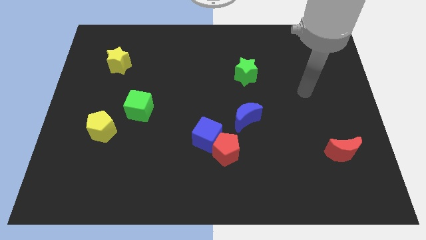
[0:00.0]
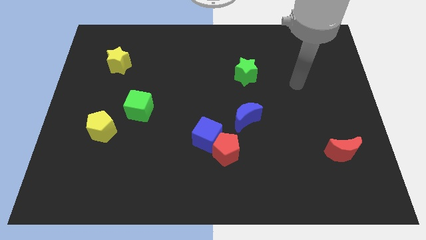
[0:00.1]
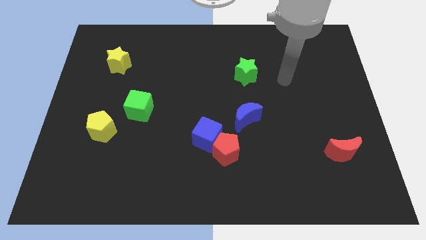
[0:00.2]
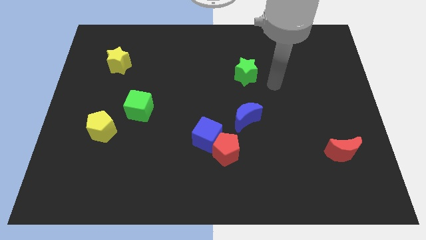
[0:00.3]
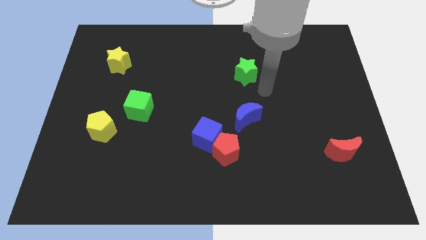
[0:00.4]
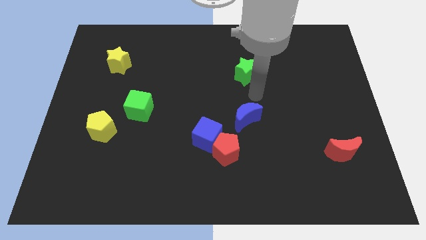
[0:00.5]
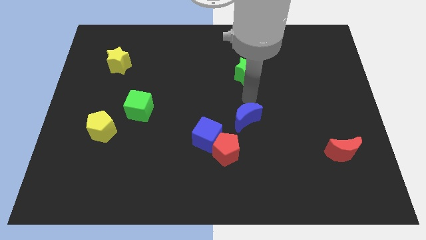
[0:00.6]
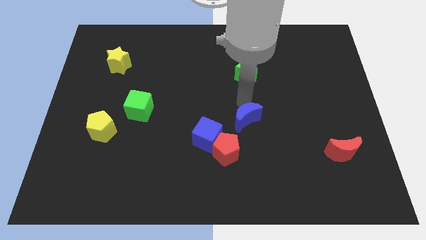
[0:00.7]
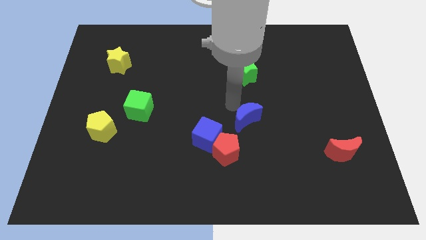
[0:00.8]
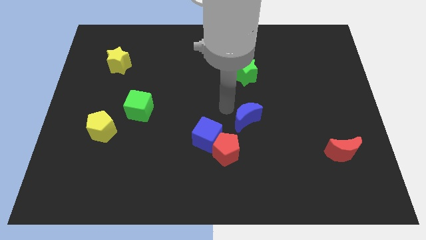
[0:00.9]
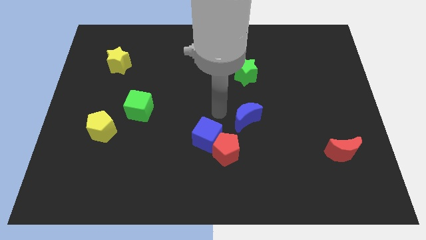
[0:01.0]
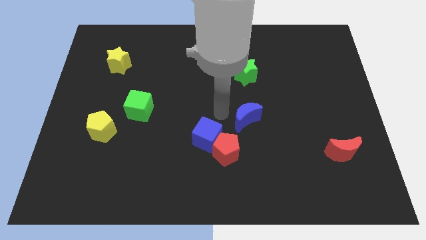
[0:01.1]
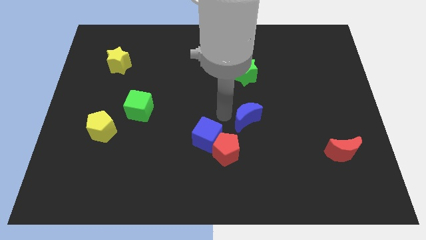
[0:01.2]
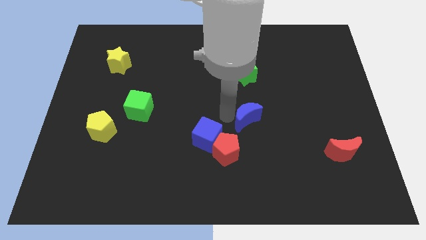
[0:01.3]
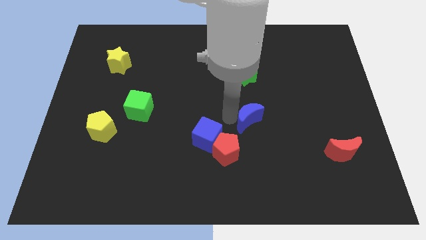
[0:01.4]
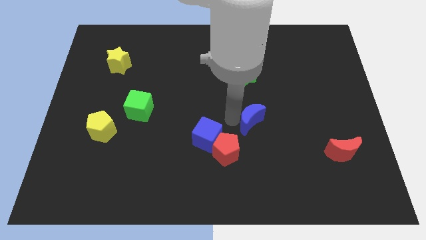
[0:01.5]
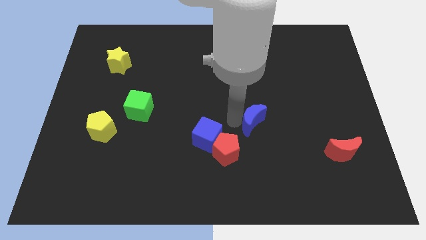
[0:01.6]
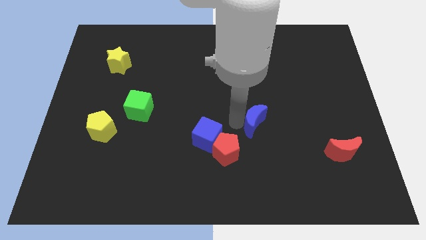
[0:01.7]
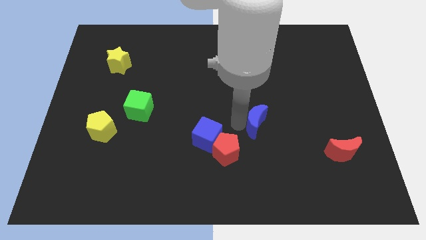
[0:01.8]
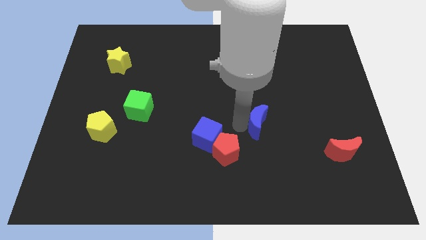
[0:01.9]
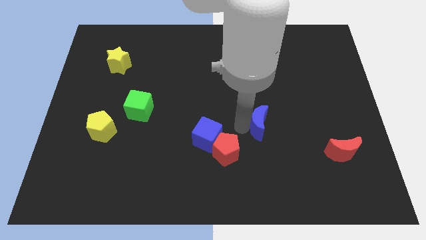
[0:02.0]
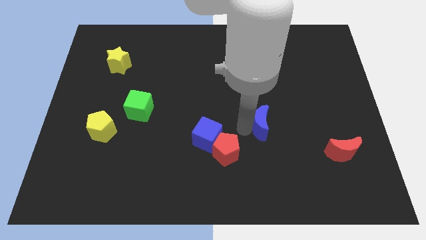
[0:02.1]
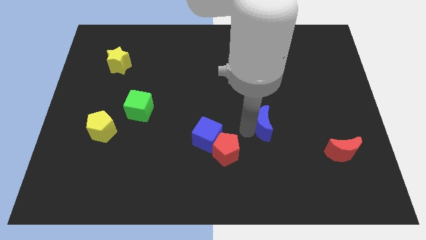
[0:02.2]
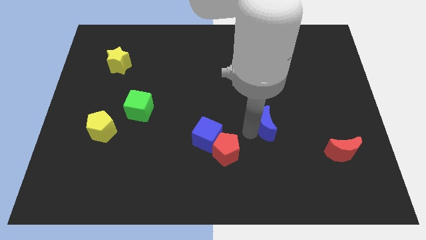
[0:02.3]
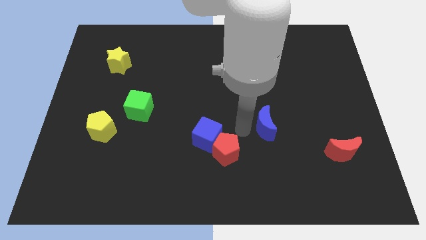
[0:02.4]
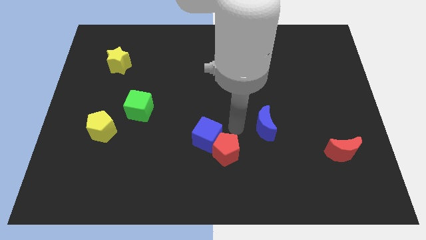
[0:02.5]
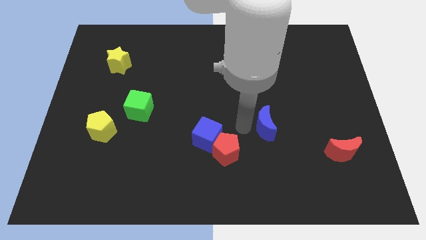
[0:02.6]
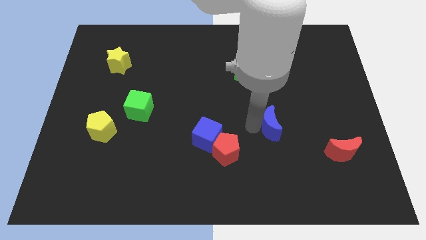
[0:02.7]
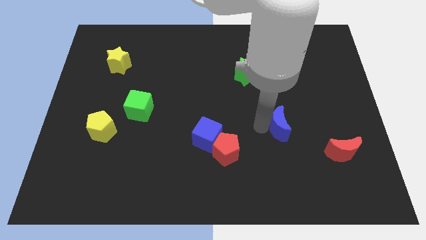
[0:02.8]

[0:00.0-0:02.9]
slide the blue moon somewhat to the right

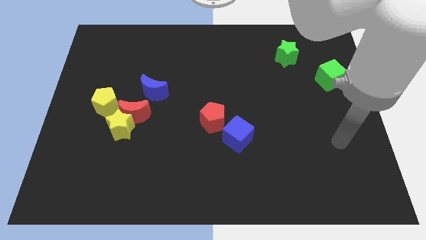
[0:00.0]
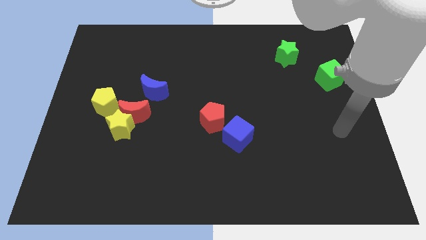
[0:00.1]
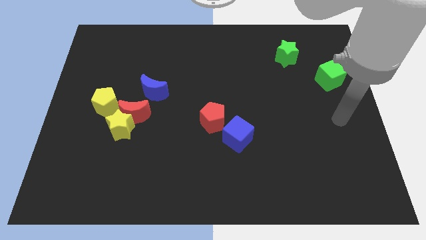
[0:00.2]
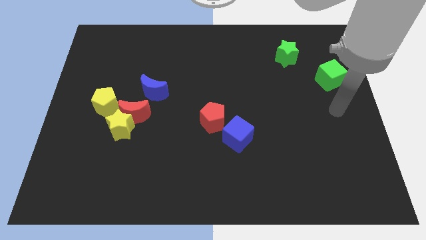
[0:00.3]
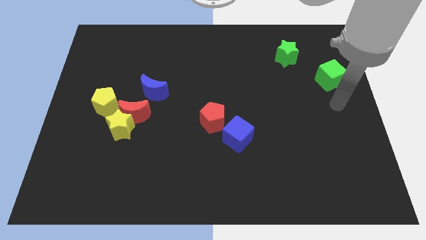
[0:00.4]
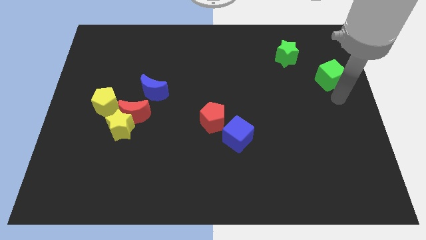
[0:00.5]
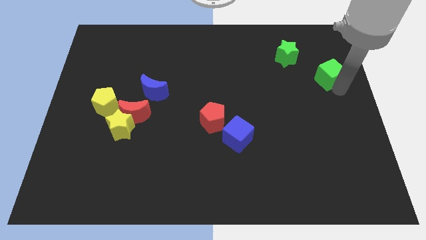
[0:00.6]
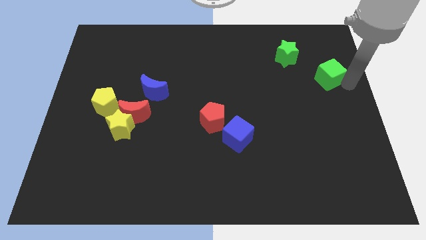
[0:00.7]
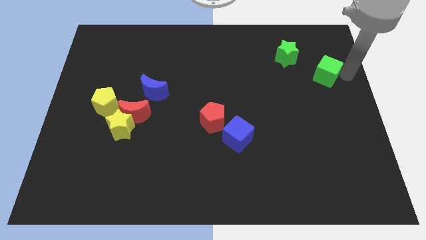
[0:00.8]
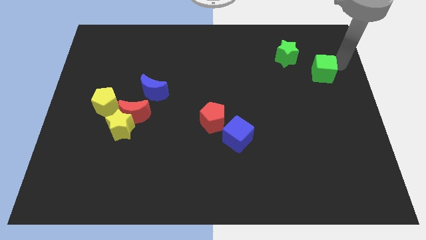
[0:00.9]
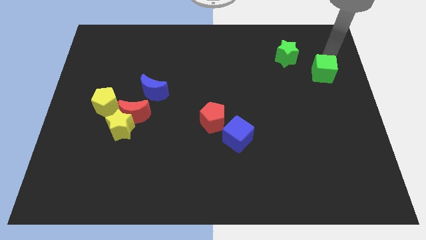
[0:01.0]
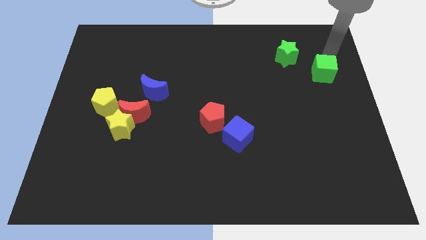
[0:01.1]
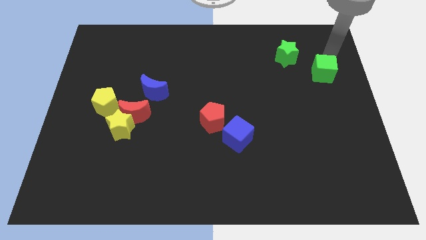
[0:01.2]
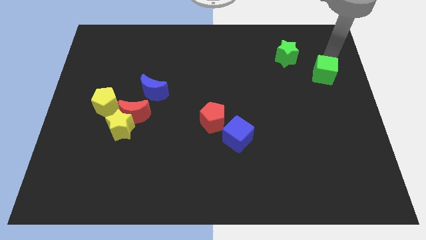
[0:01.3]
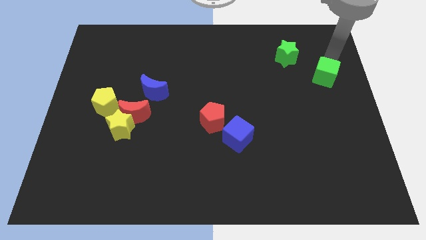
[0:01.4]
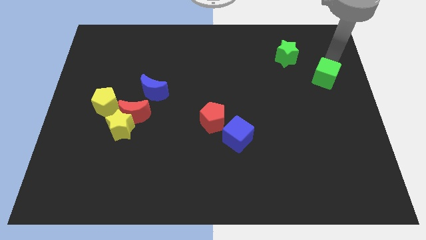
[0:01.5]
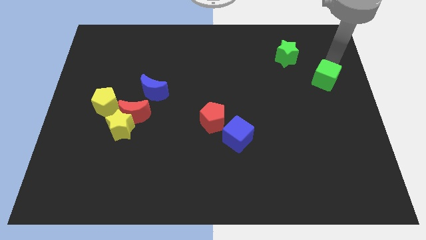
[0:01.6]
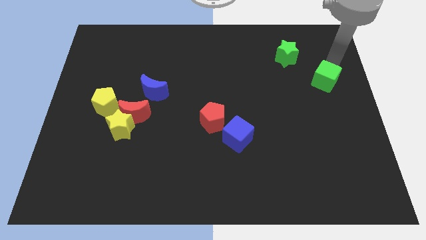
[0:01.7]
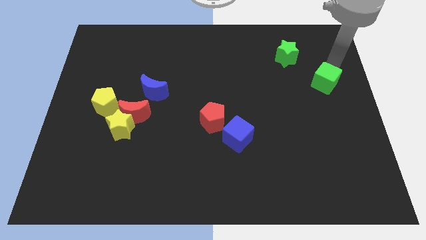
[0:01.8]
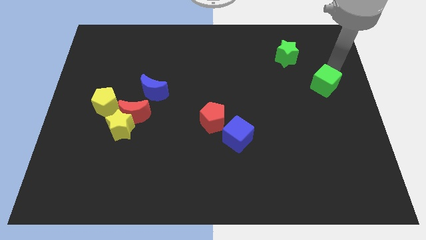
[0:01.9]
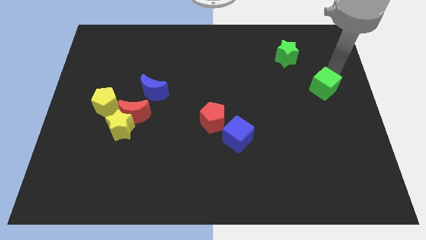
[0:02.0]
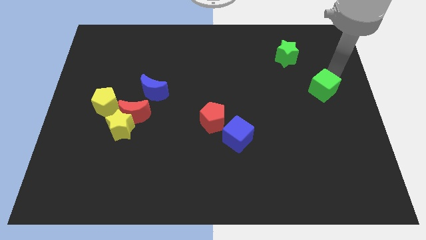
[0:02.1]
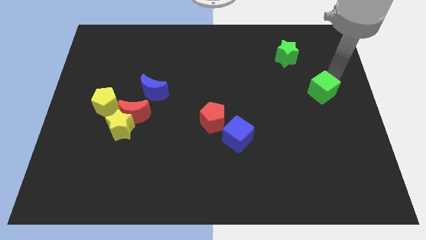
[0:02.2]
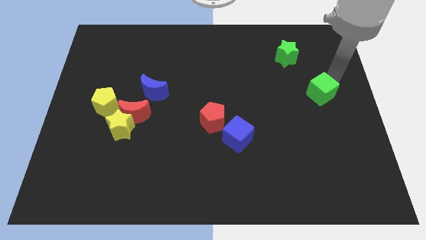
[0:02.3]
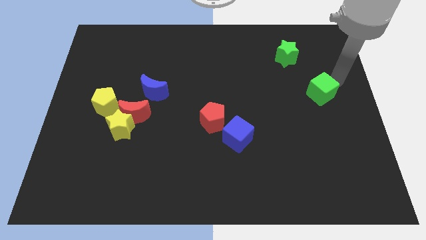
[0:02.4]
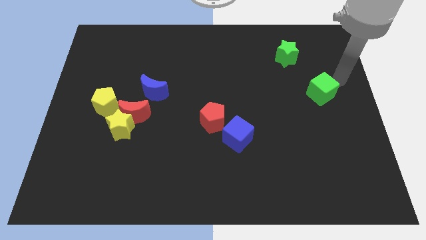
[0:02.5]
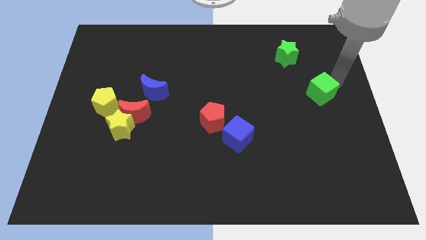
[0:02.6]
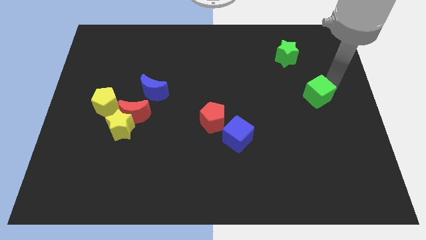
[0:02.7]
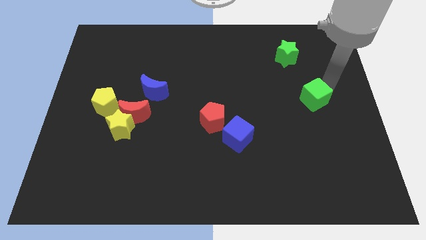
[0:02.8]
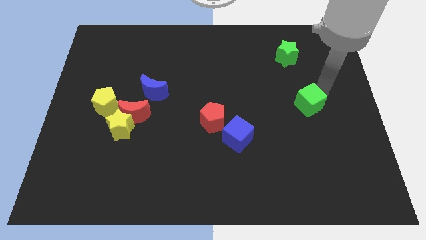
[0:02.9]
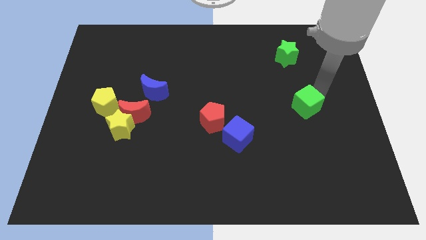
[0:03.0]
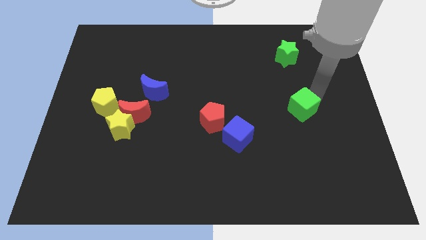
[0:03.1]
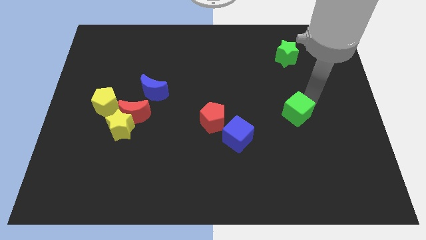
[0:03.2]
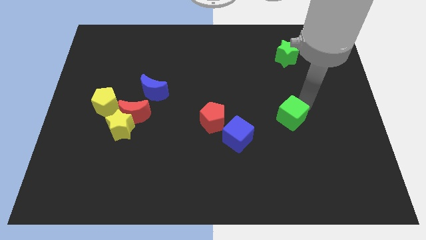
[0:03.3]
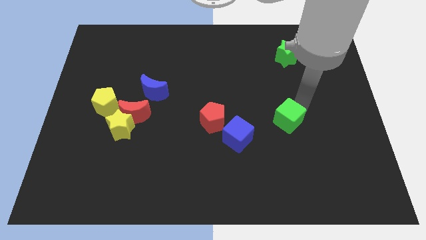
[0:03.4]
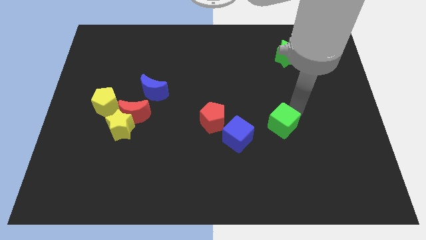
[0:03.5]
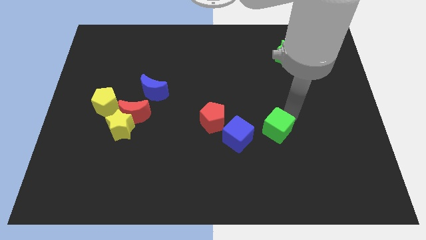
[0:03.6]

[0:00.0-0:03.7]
slide the green cube downwards and left

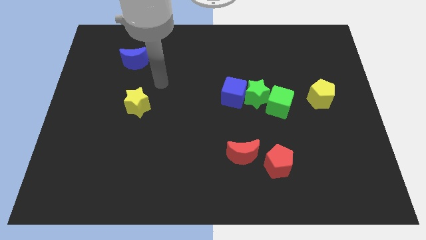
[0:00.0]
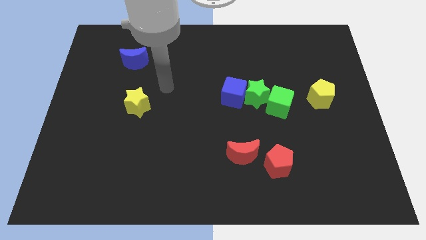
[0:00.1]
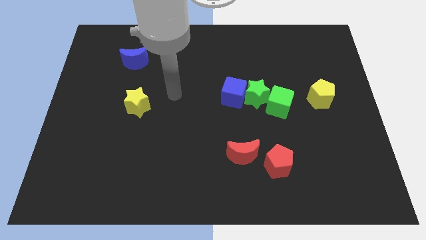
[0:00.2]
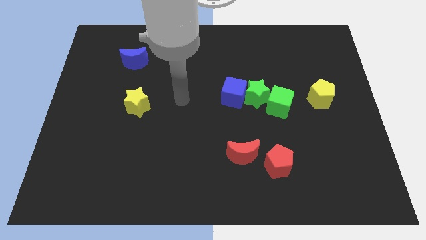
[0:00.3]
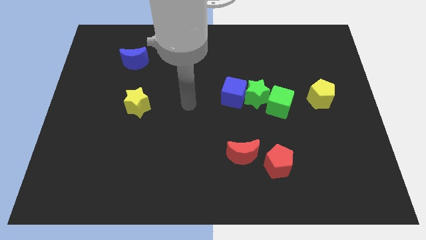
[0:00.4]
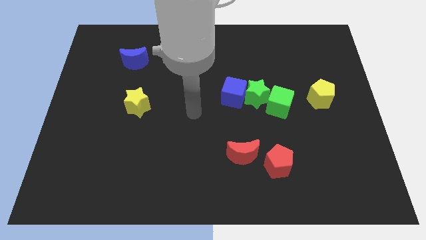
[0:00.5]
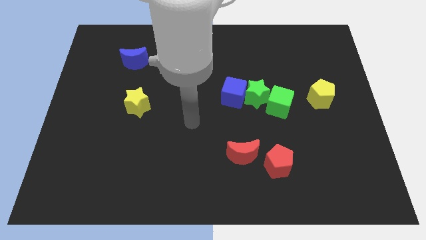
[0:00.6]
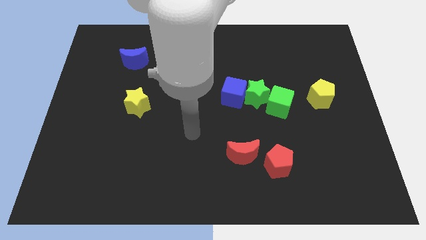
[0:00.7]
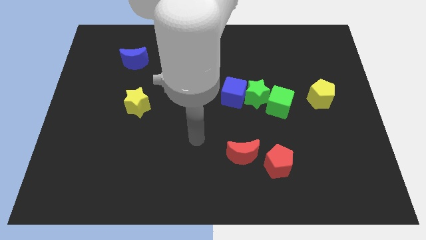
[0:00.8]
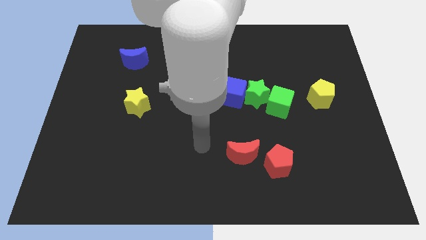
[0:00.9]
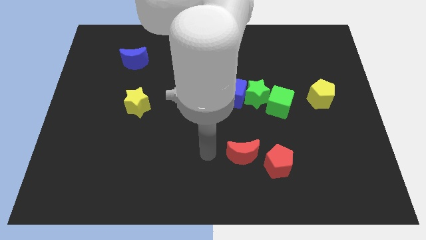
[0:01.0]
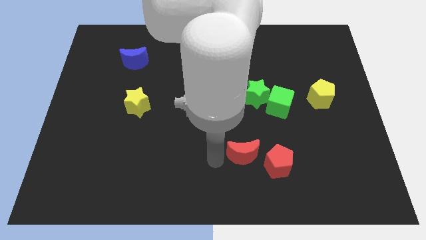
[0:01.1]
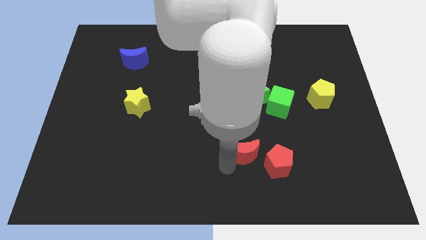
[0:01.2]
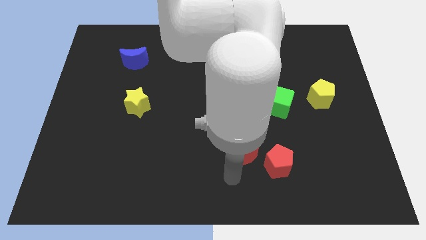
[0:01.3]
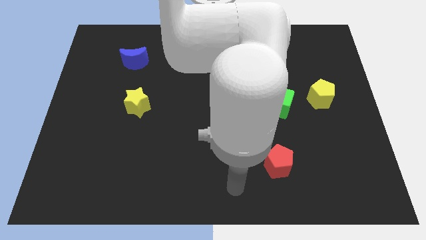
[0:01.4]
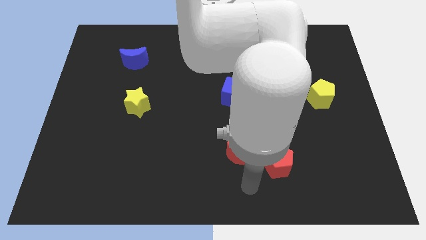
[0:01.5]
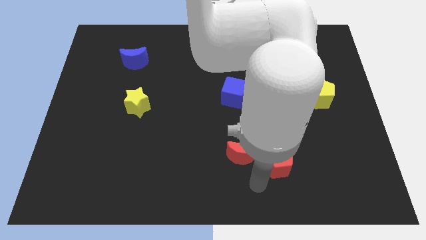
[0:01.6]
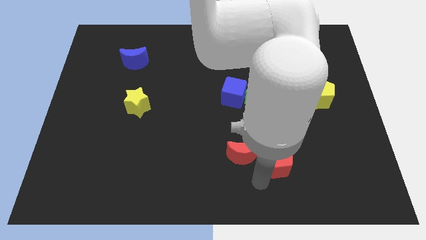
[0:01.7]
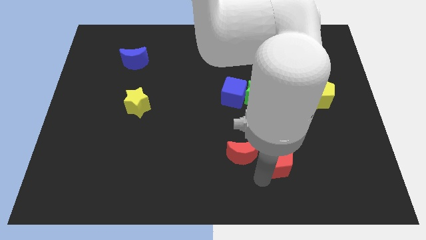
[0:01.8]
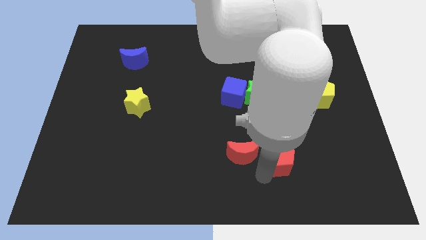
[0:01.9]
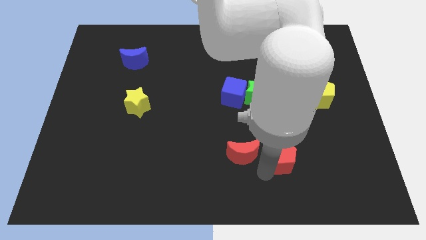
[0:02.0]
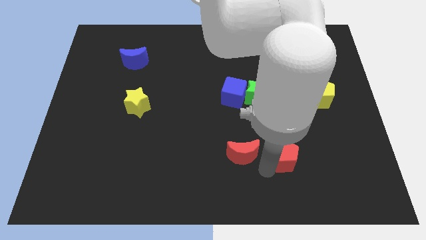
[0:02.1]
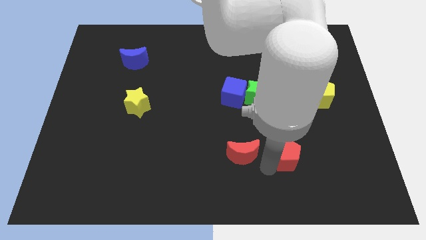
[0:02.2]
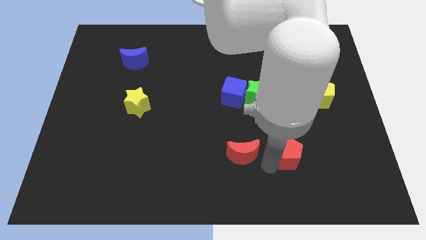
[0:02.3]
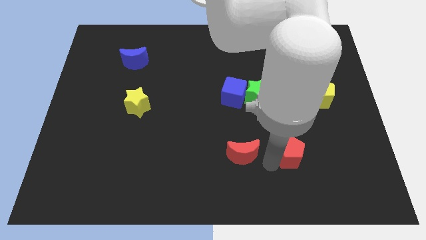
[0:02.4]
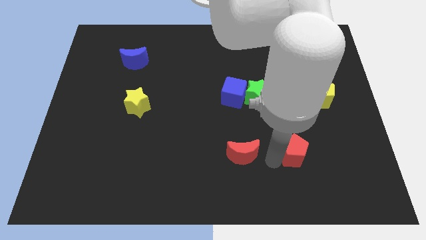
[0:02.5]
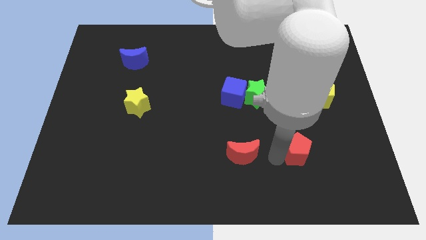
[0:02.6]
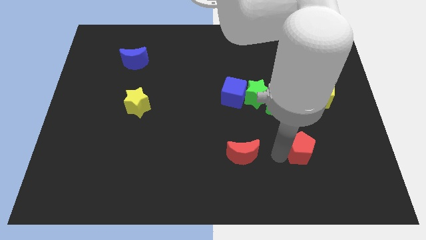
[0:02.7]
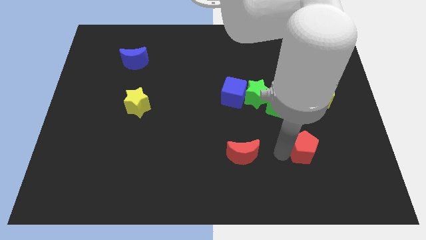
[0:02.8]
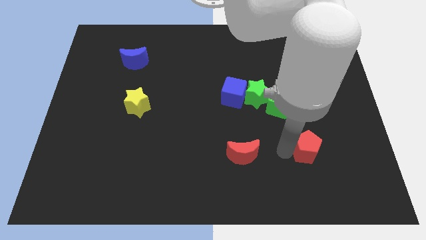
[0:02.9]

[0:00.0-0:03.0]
push the red pentagon a little upwards and then to the right
